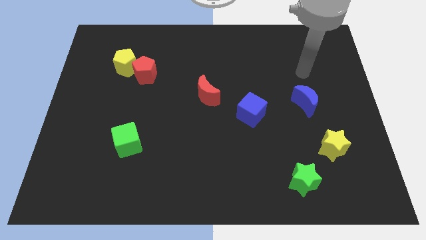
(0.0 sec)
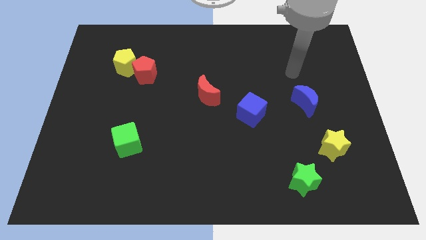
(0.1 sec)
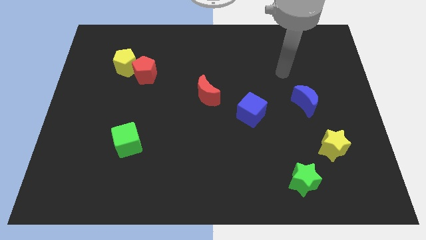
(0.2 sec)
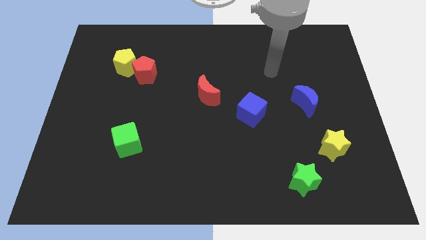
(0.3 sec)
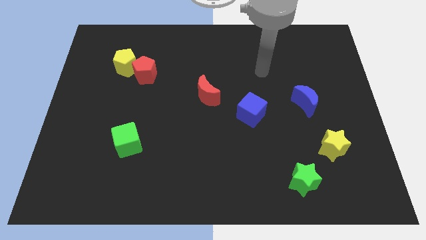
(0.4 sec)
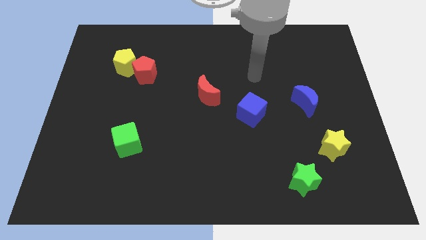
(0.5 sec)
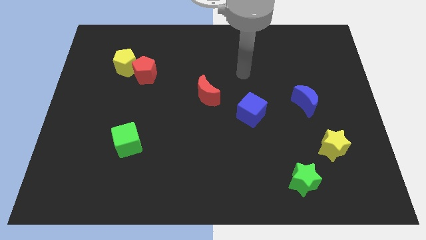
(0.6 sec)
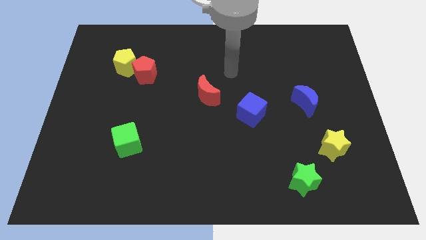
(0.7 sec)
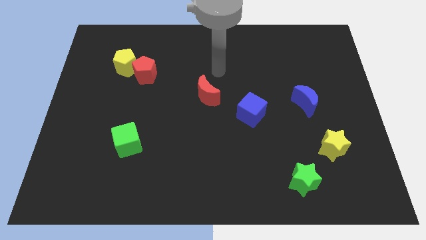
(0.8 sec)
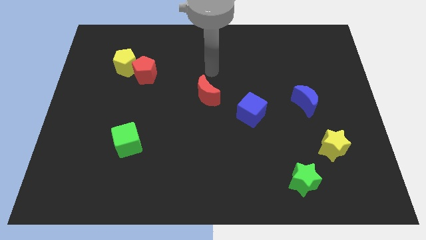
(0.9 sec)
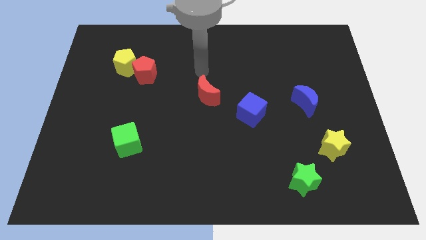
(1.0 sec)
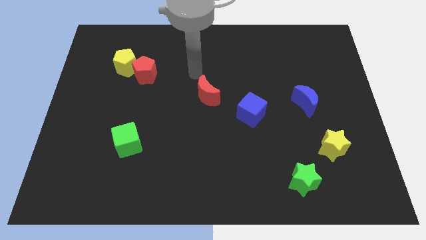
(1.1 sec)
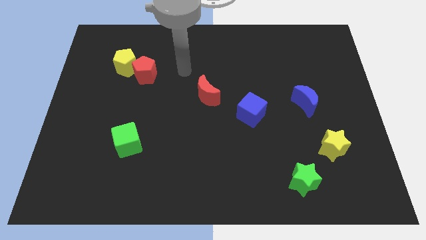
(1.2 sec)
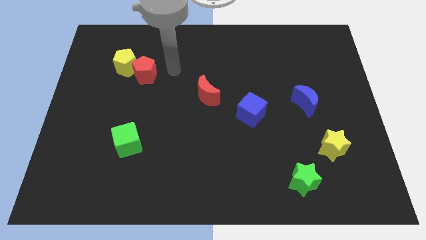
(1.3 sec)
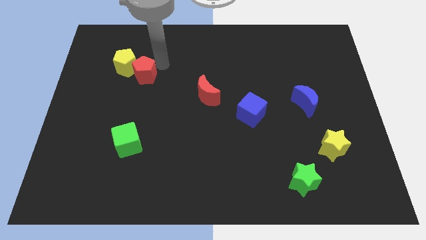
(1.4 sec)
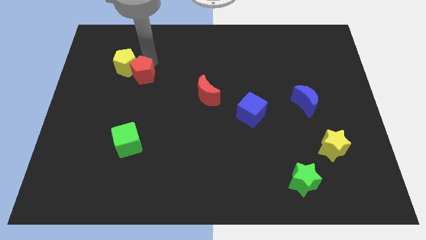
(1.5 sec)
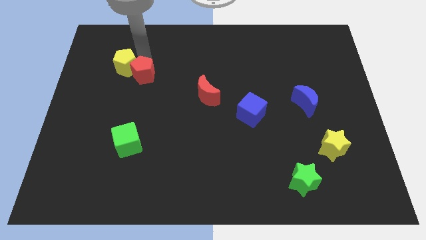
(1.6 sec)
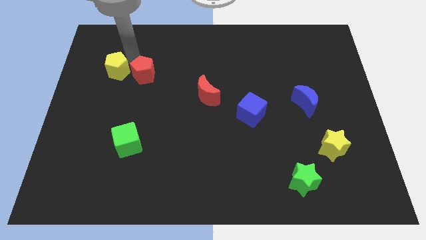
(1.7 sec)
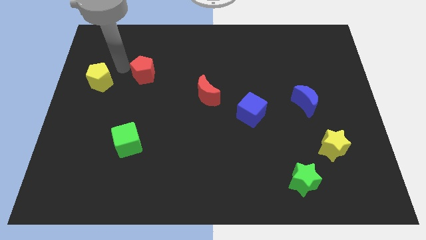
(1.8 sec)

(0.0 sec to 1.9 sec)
move the red pentagon away from the yellow pentagon

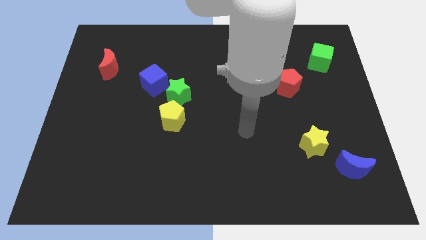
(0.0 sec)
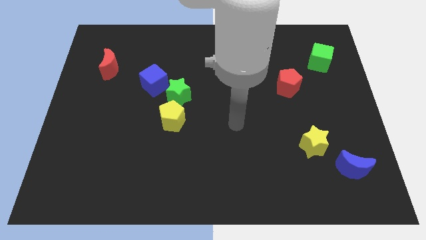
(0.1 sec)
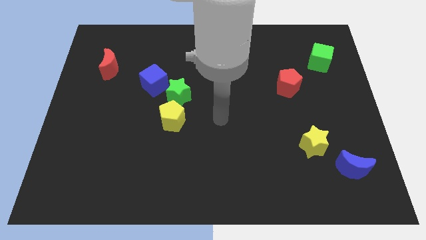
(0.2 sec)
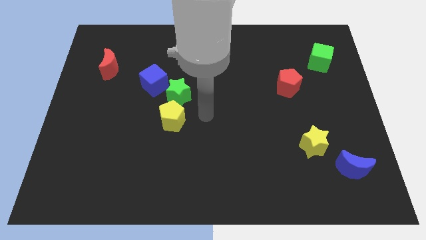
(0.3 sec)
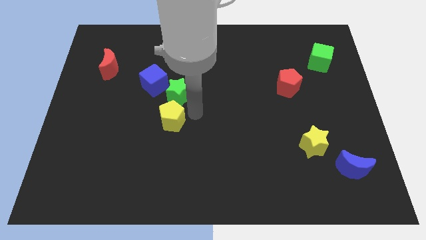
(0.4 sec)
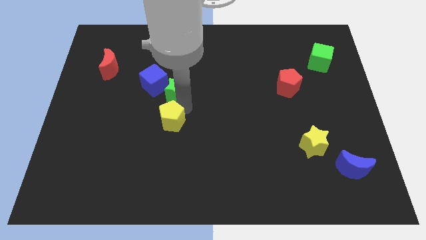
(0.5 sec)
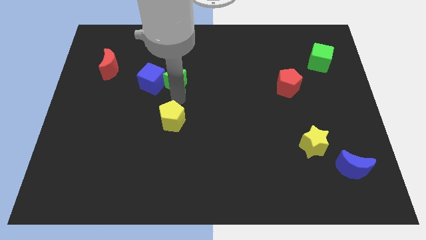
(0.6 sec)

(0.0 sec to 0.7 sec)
pull the yellow pentagon apart from the green star

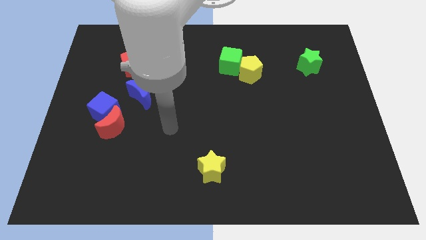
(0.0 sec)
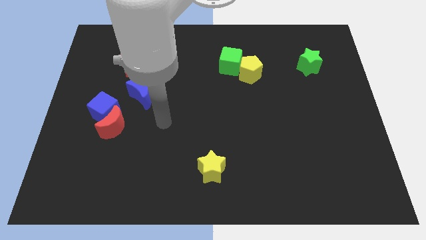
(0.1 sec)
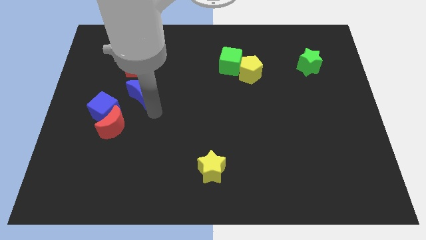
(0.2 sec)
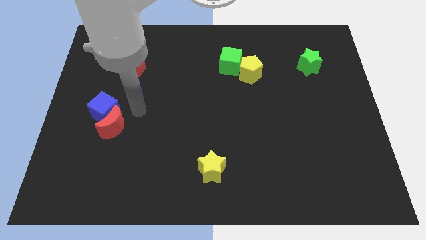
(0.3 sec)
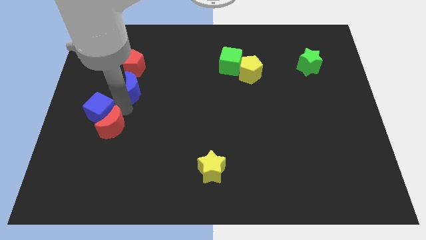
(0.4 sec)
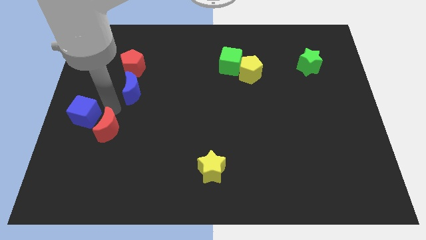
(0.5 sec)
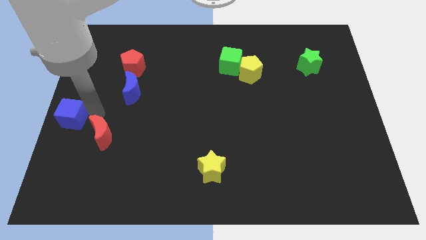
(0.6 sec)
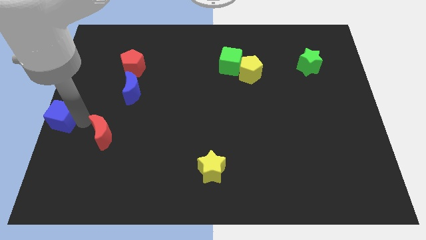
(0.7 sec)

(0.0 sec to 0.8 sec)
pull the red moon apart from the blue cube

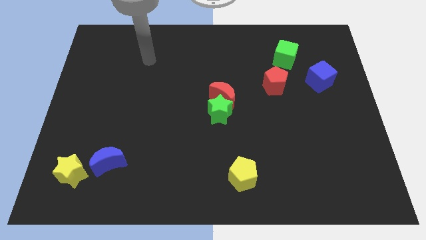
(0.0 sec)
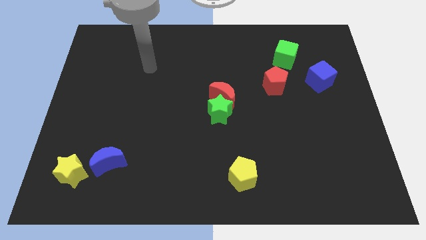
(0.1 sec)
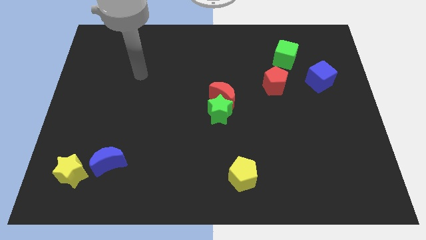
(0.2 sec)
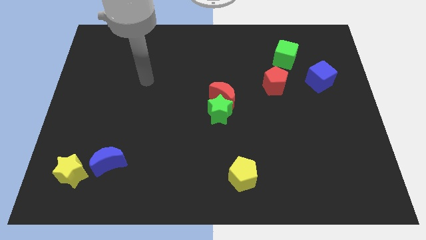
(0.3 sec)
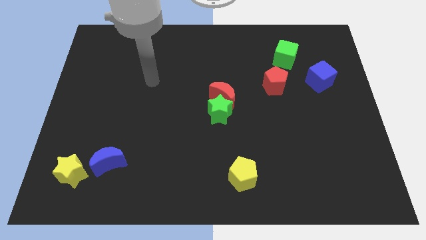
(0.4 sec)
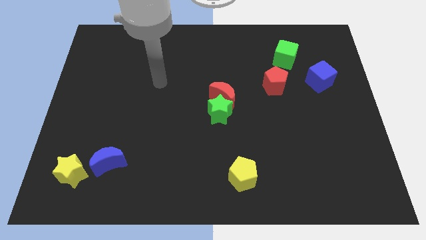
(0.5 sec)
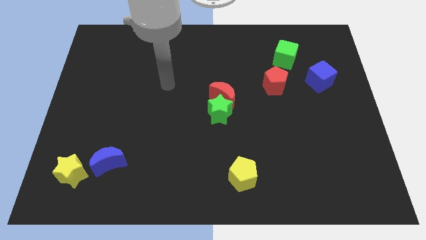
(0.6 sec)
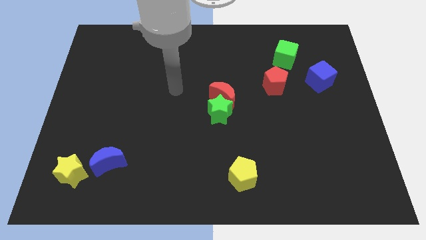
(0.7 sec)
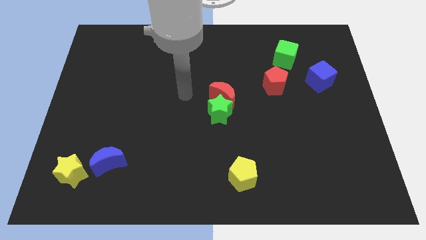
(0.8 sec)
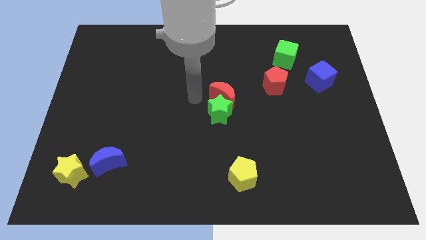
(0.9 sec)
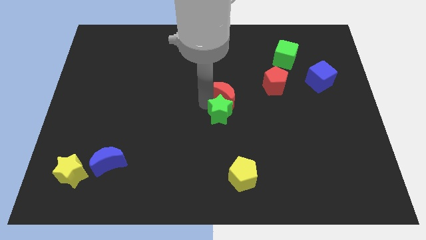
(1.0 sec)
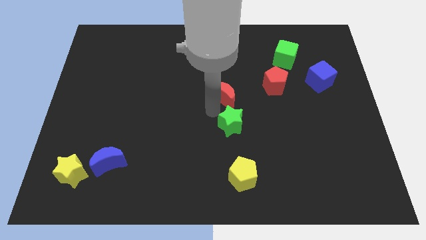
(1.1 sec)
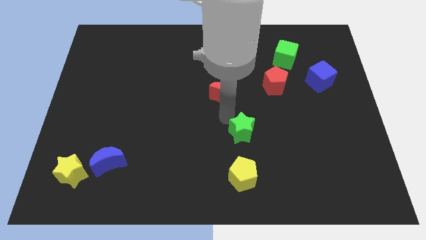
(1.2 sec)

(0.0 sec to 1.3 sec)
move the red moon away from the green star

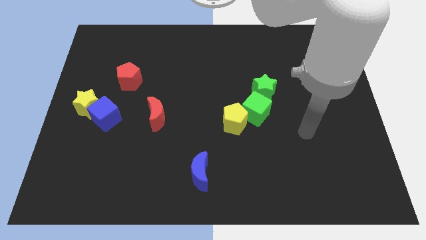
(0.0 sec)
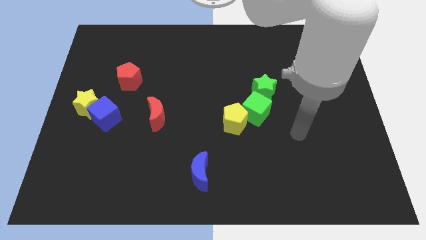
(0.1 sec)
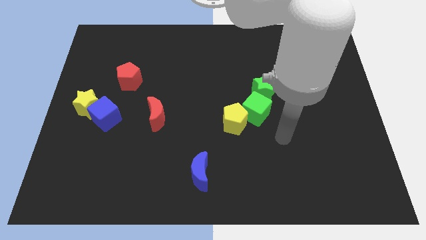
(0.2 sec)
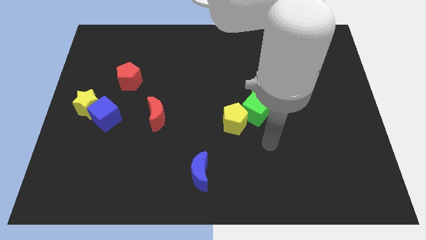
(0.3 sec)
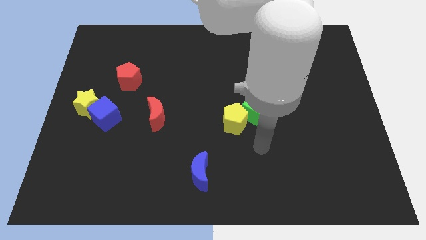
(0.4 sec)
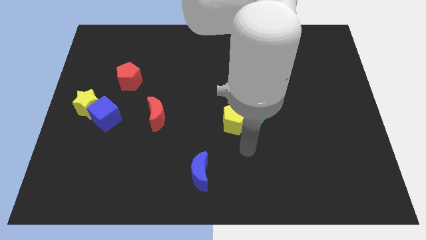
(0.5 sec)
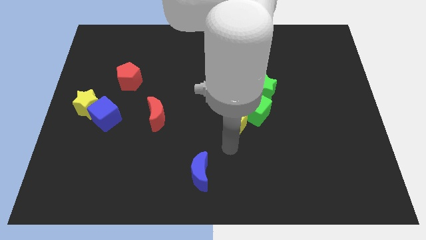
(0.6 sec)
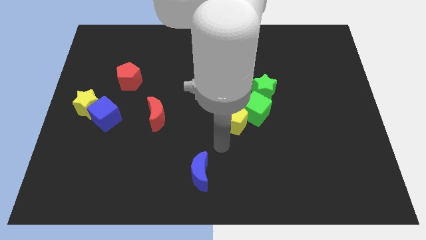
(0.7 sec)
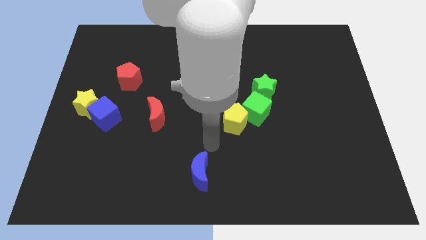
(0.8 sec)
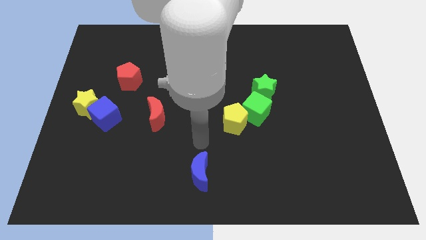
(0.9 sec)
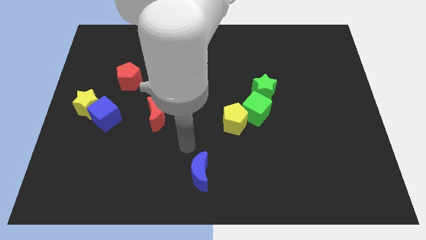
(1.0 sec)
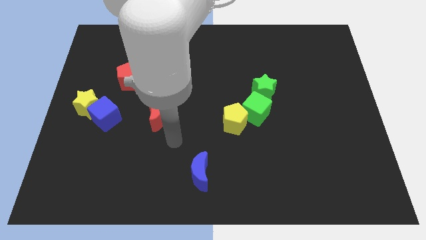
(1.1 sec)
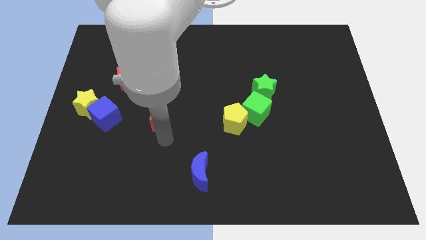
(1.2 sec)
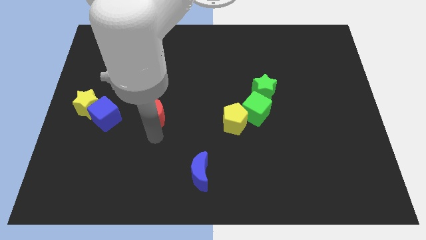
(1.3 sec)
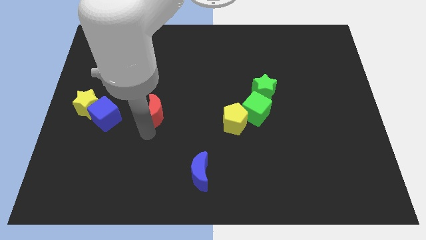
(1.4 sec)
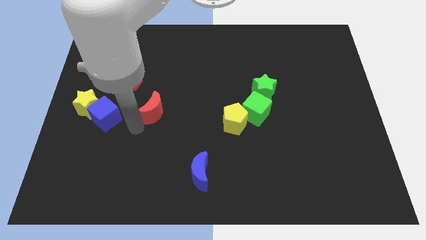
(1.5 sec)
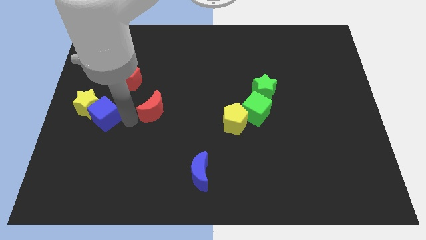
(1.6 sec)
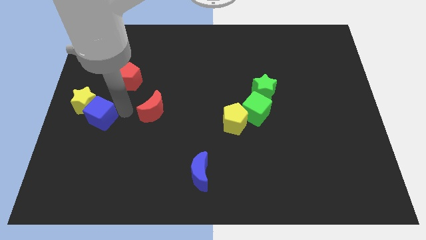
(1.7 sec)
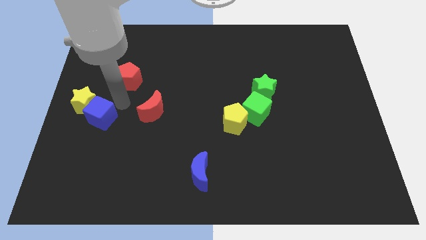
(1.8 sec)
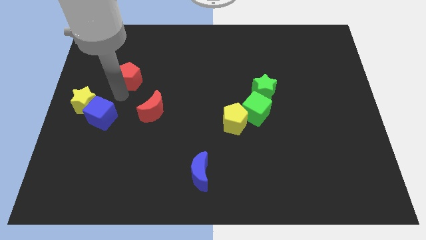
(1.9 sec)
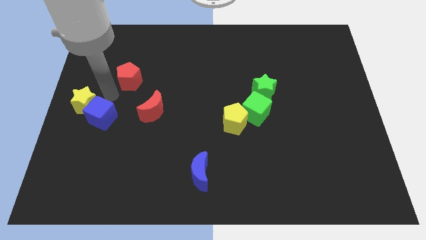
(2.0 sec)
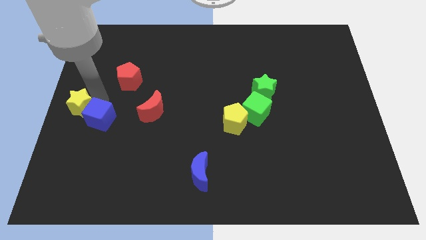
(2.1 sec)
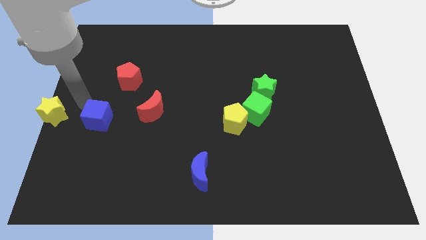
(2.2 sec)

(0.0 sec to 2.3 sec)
pull the blue cube apart from the yellow star

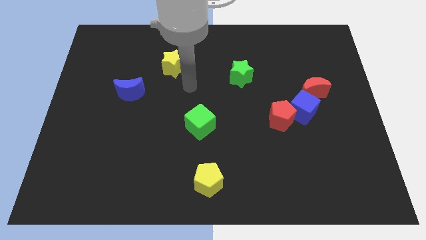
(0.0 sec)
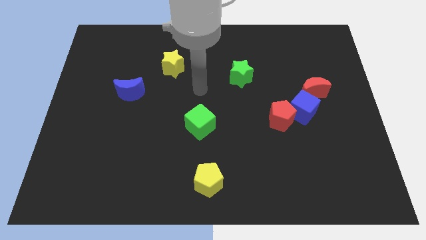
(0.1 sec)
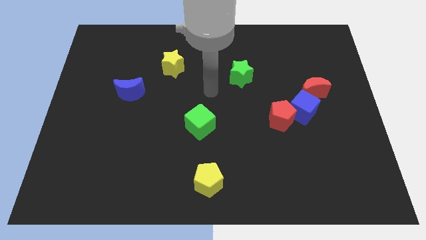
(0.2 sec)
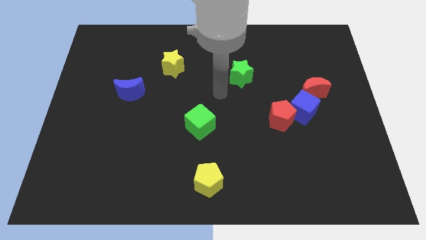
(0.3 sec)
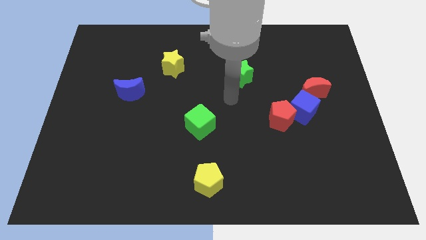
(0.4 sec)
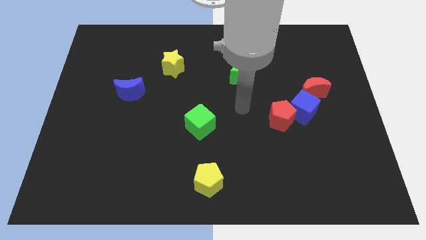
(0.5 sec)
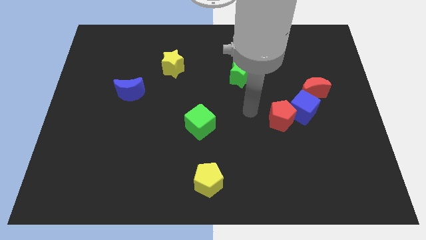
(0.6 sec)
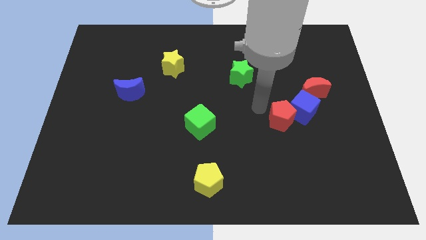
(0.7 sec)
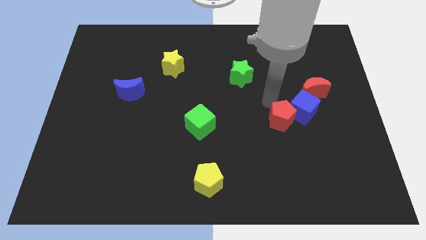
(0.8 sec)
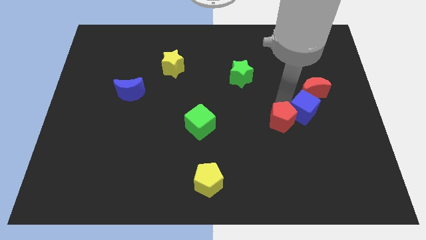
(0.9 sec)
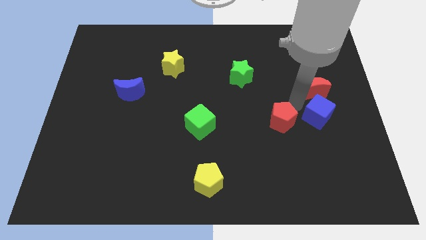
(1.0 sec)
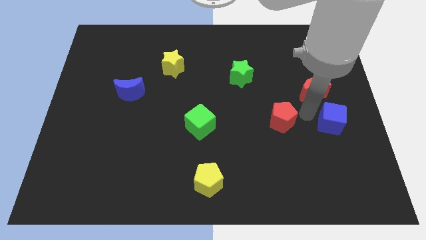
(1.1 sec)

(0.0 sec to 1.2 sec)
pull the red pentagon apart from the blue cube

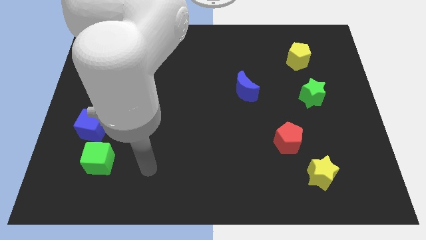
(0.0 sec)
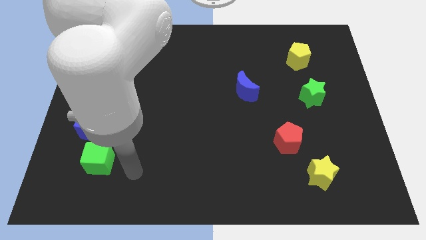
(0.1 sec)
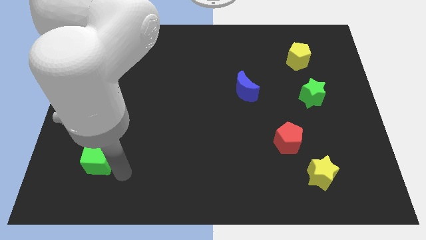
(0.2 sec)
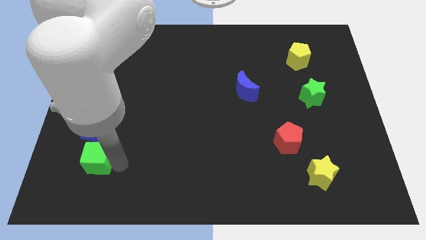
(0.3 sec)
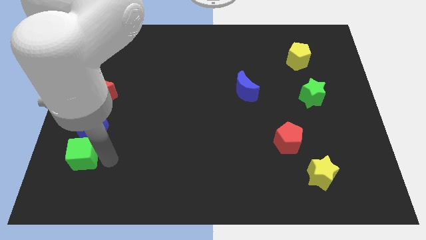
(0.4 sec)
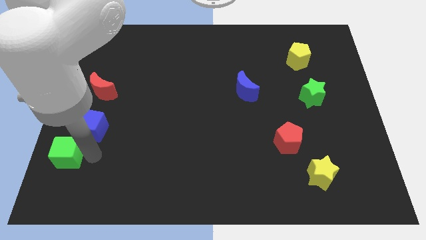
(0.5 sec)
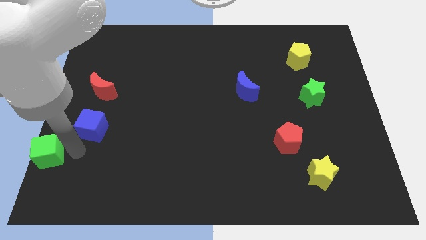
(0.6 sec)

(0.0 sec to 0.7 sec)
separate the blue cube from the green cube

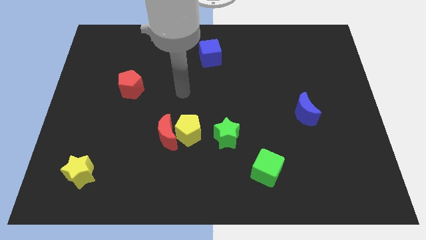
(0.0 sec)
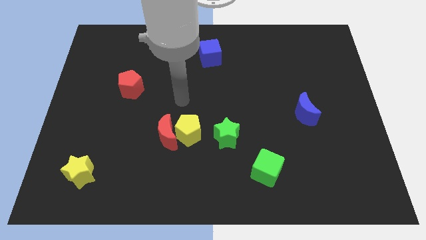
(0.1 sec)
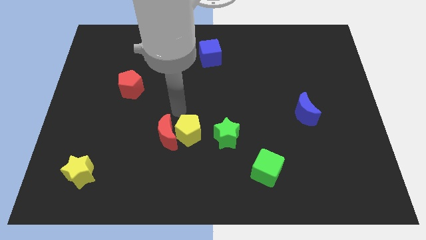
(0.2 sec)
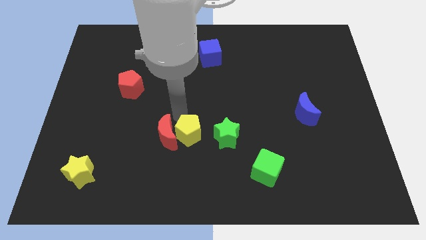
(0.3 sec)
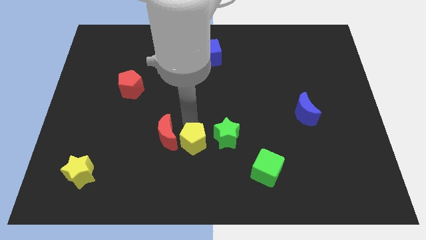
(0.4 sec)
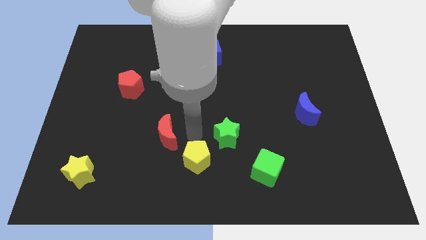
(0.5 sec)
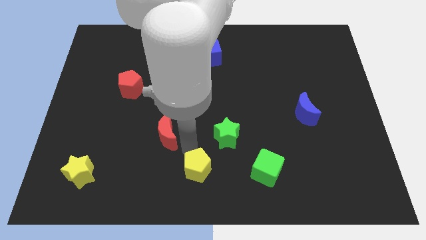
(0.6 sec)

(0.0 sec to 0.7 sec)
pull the red moon apart from the yellow pentagon
